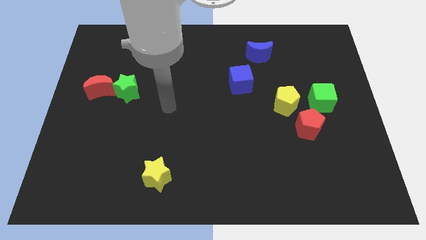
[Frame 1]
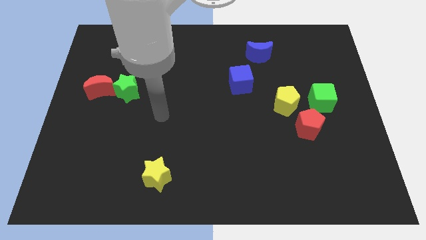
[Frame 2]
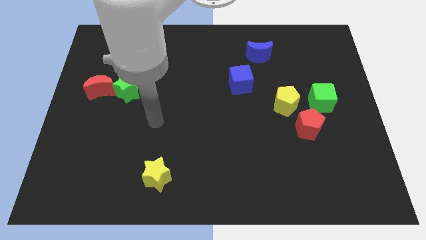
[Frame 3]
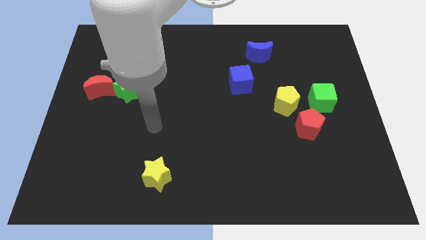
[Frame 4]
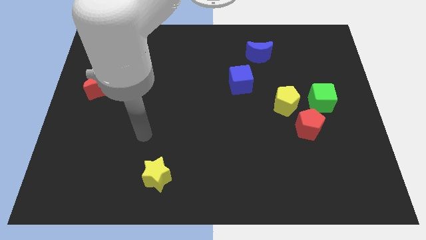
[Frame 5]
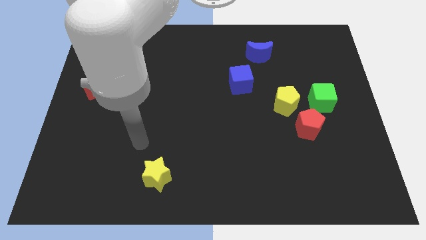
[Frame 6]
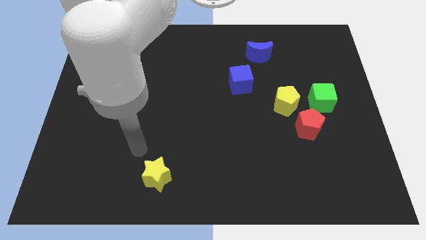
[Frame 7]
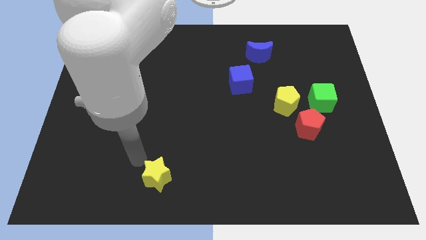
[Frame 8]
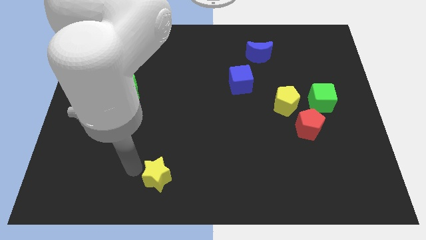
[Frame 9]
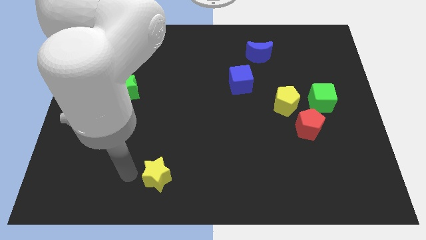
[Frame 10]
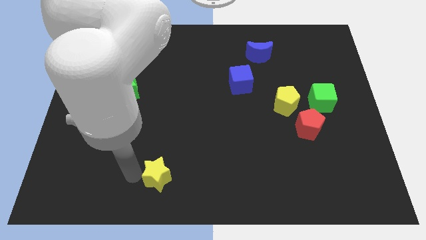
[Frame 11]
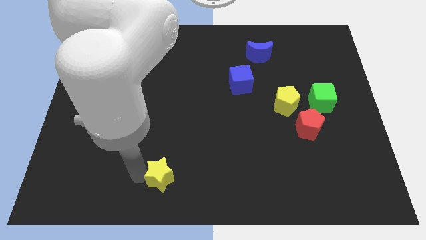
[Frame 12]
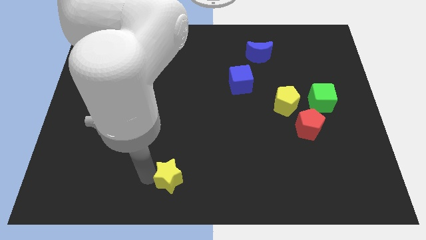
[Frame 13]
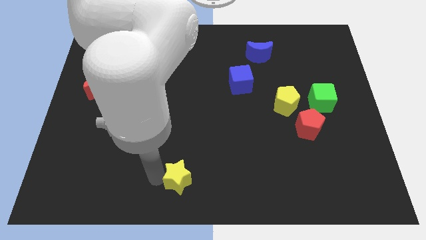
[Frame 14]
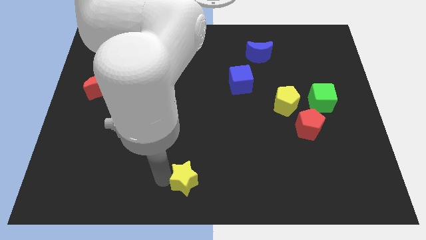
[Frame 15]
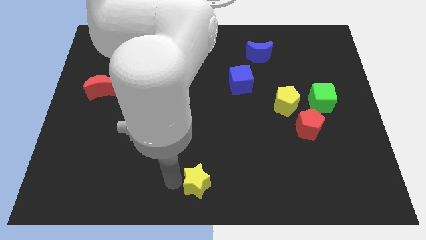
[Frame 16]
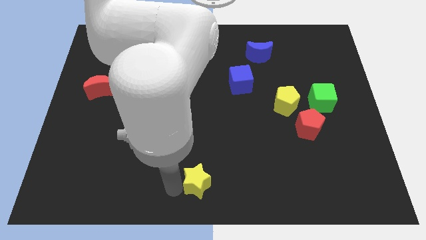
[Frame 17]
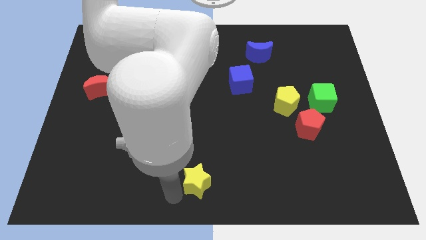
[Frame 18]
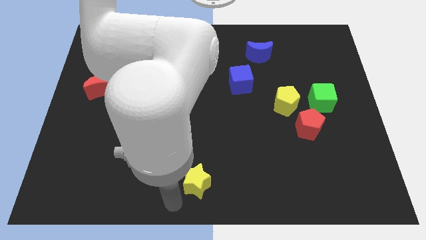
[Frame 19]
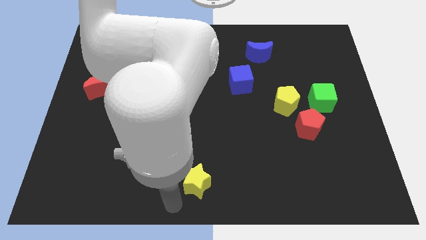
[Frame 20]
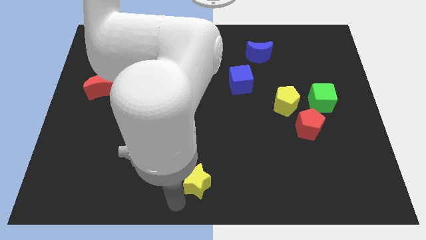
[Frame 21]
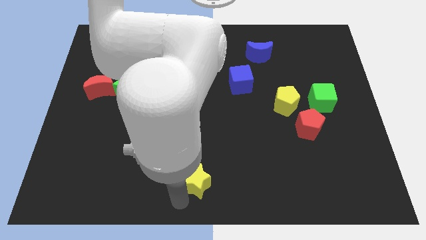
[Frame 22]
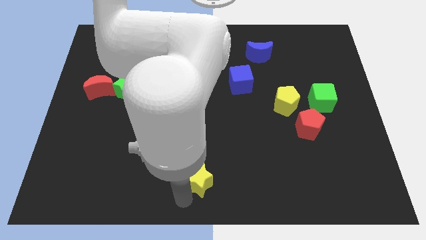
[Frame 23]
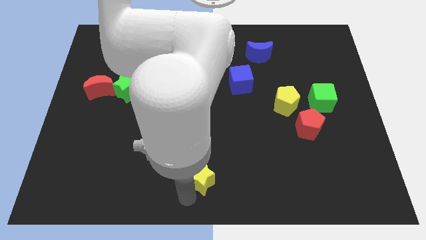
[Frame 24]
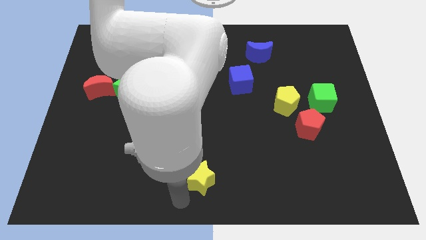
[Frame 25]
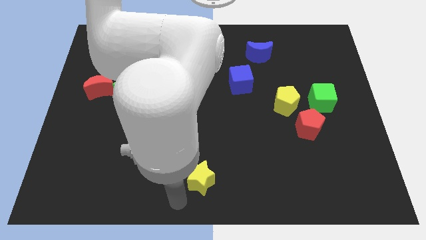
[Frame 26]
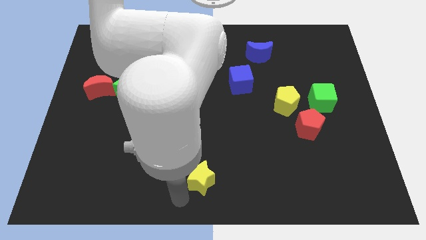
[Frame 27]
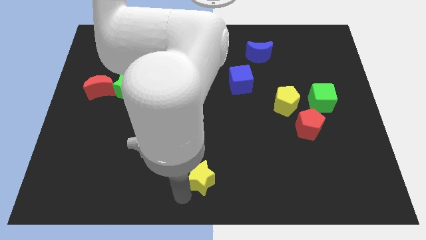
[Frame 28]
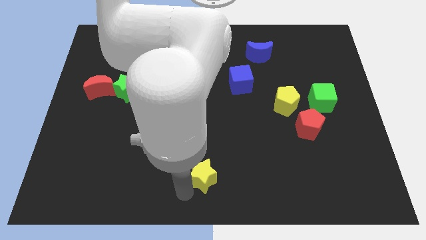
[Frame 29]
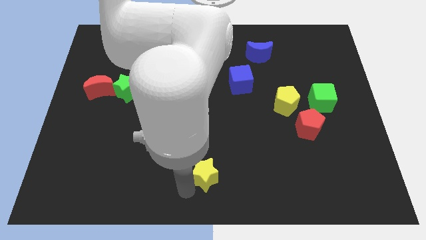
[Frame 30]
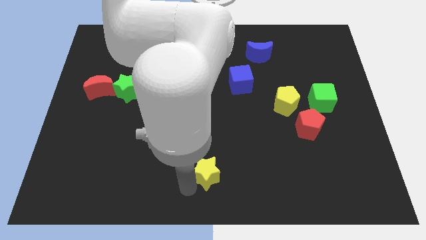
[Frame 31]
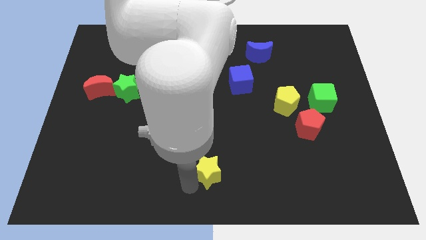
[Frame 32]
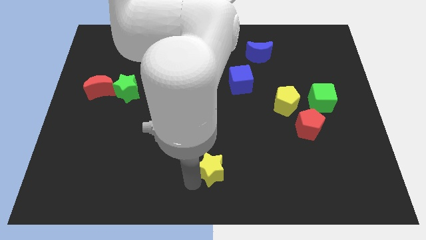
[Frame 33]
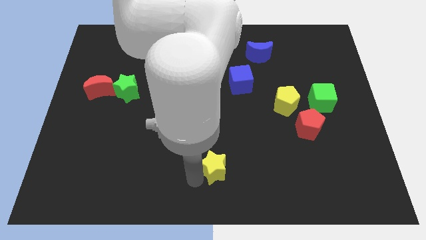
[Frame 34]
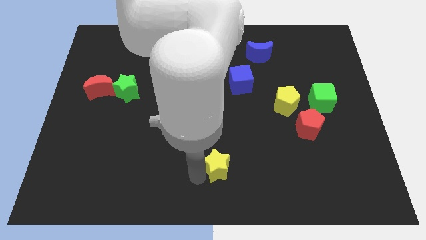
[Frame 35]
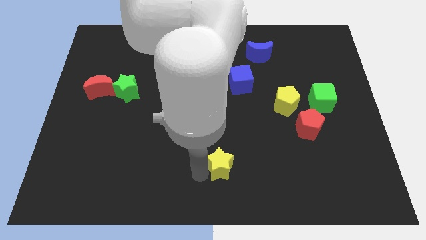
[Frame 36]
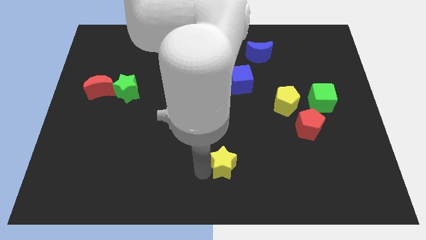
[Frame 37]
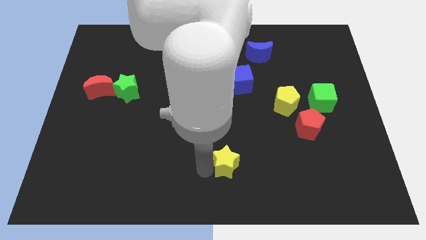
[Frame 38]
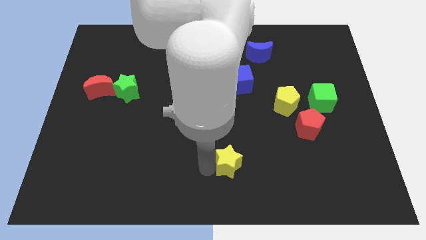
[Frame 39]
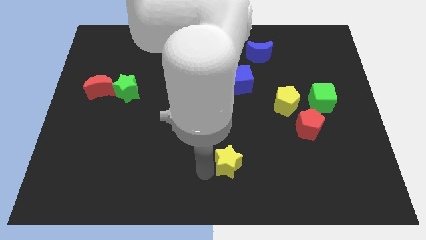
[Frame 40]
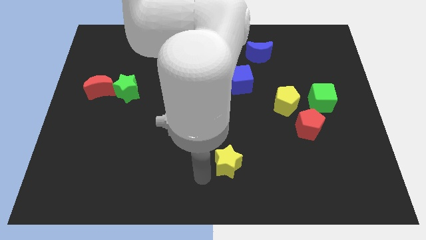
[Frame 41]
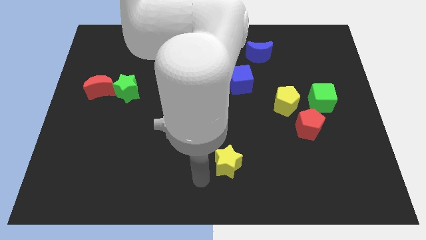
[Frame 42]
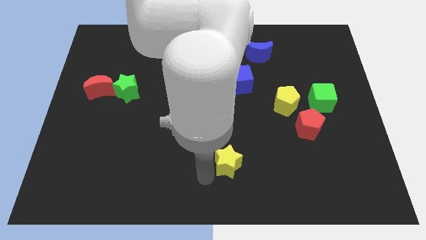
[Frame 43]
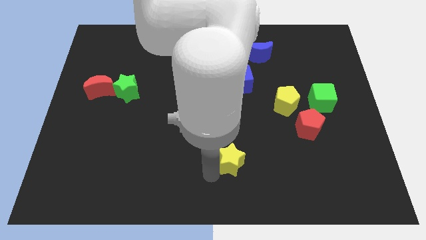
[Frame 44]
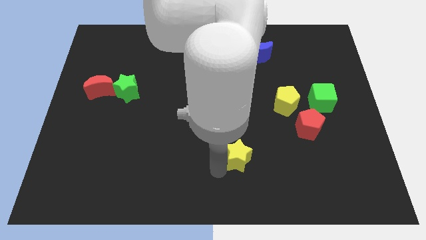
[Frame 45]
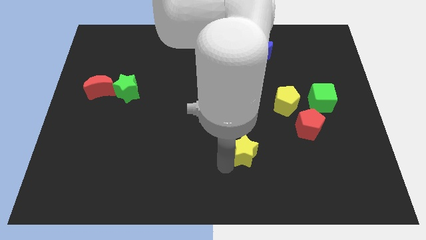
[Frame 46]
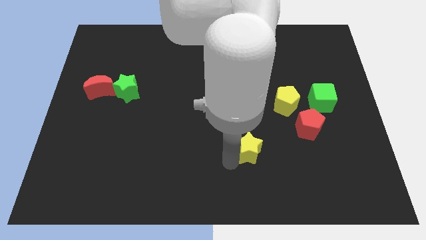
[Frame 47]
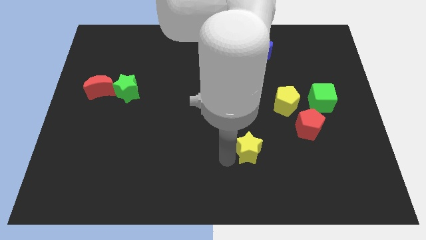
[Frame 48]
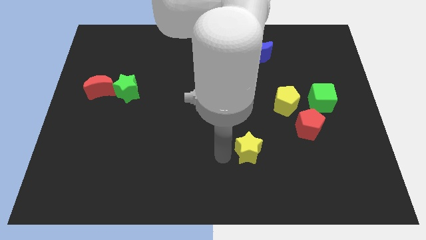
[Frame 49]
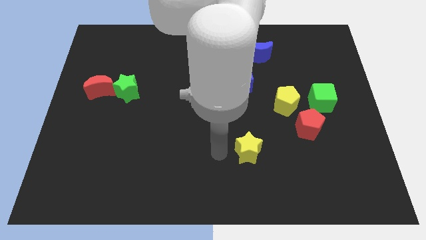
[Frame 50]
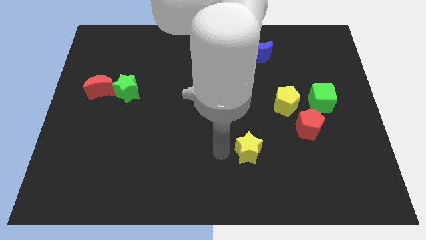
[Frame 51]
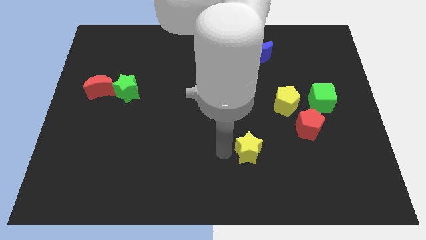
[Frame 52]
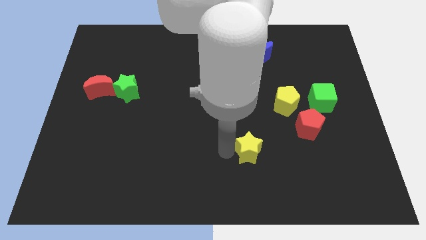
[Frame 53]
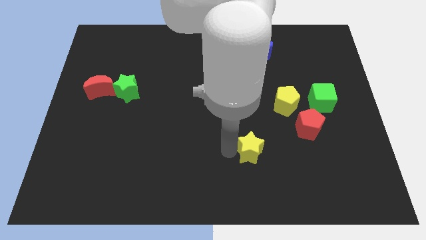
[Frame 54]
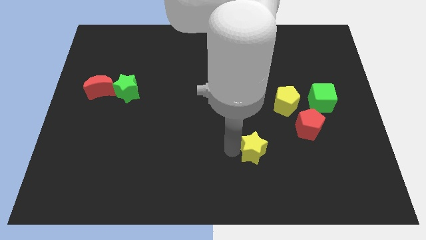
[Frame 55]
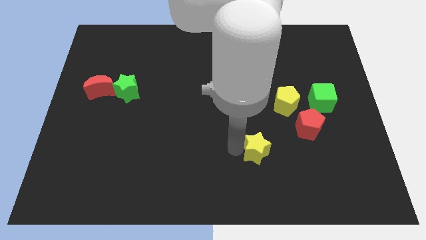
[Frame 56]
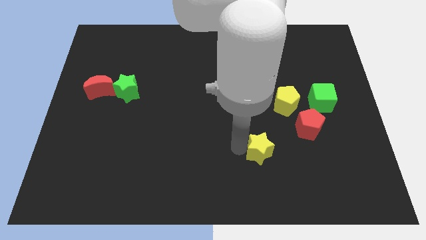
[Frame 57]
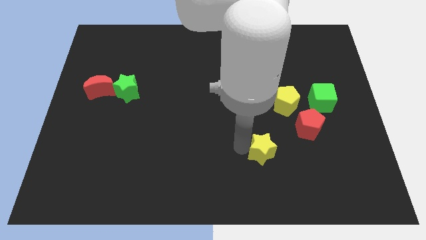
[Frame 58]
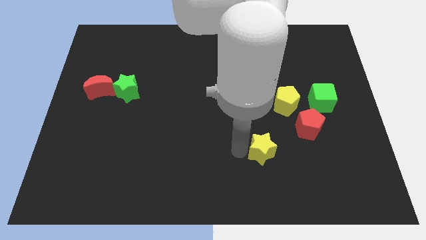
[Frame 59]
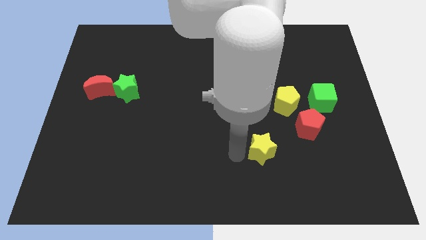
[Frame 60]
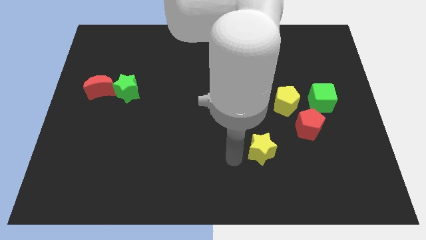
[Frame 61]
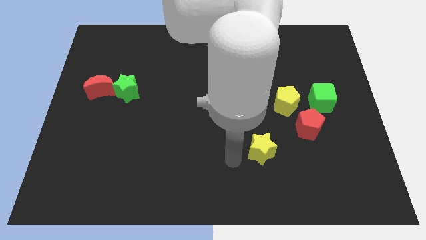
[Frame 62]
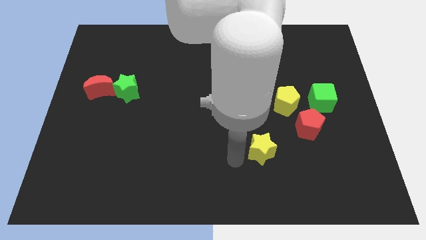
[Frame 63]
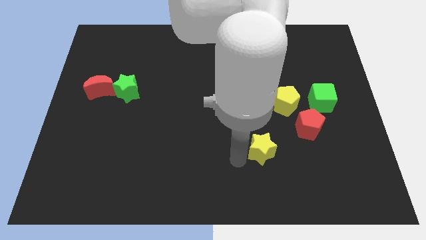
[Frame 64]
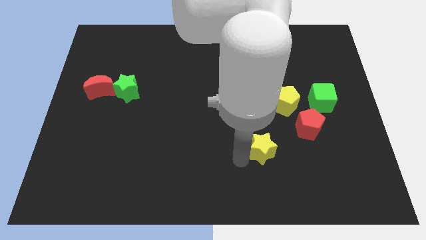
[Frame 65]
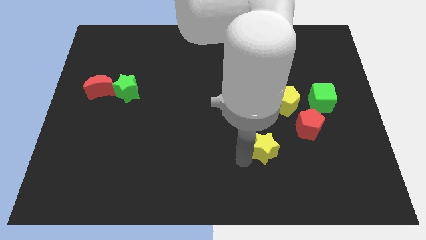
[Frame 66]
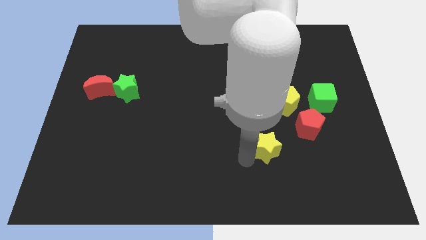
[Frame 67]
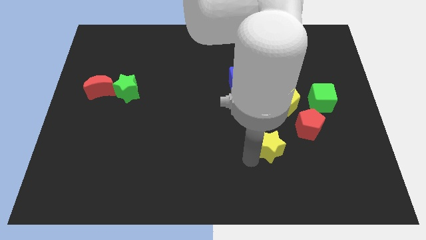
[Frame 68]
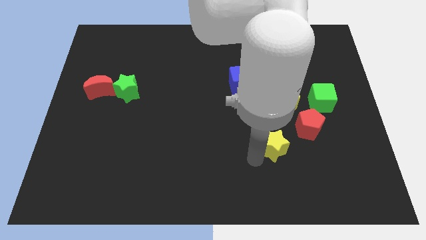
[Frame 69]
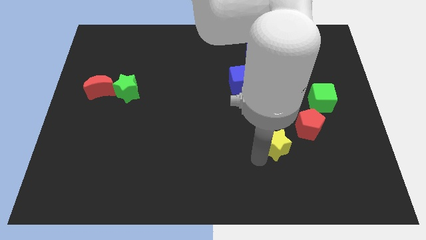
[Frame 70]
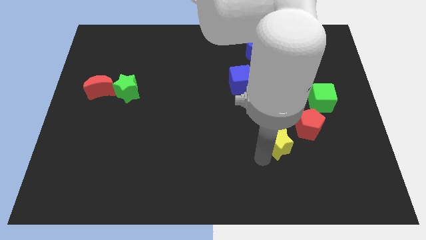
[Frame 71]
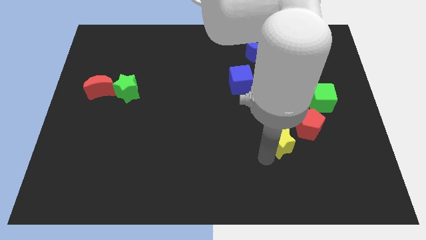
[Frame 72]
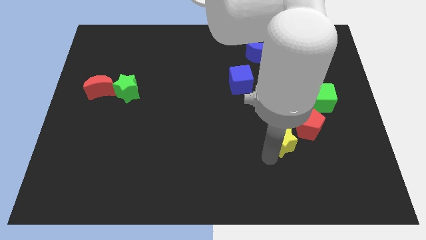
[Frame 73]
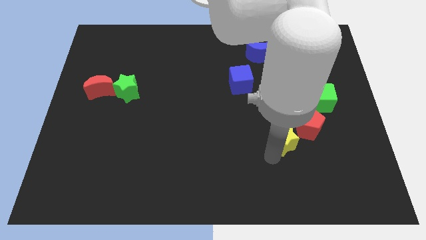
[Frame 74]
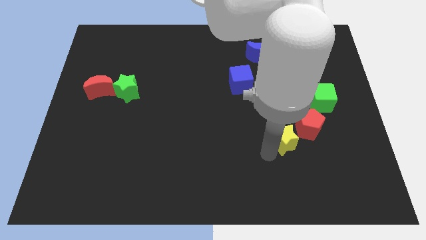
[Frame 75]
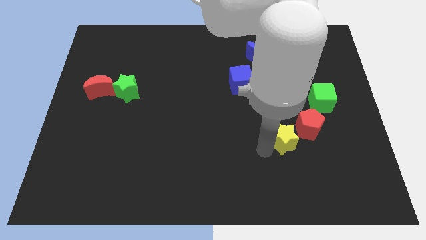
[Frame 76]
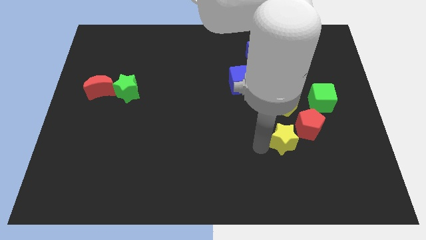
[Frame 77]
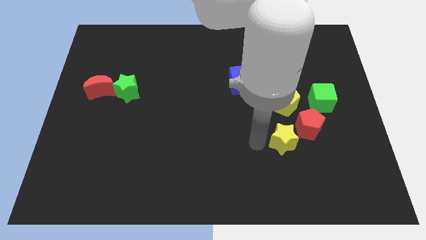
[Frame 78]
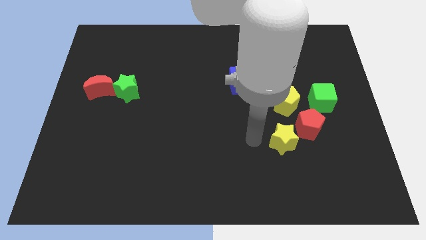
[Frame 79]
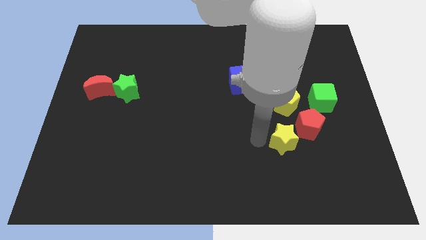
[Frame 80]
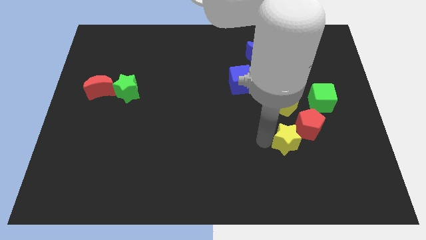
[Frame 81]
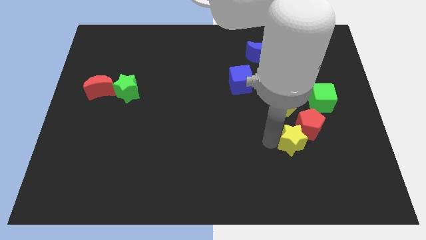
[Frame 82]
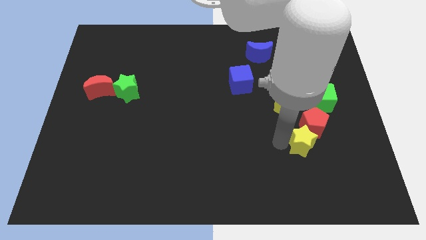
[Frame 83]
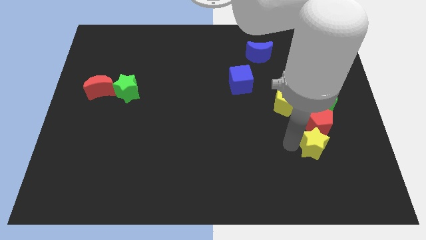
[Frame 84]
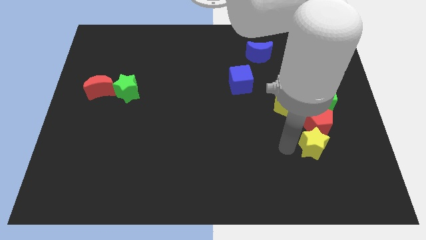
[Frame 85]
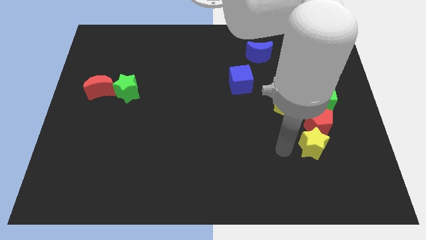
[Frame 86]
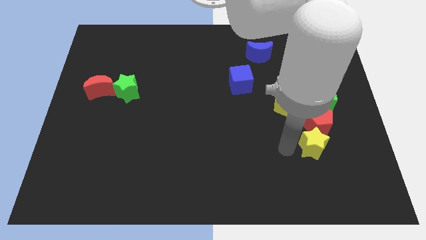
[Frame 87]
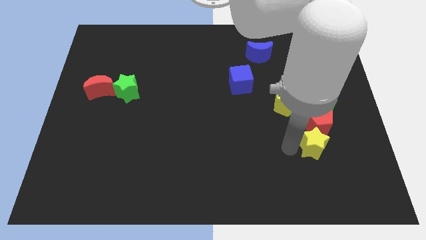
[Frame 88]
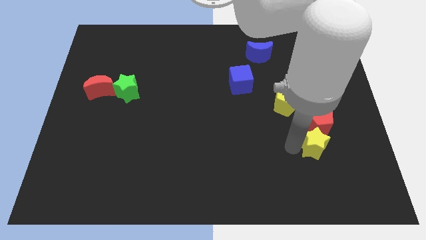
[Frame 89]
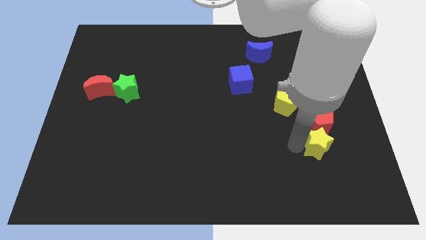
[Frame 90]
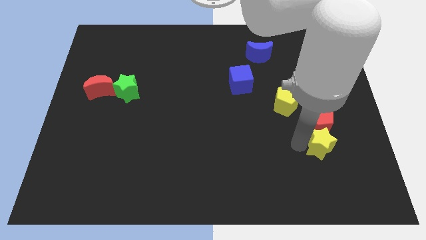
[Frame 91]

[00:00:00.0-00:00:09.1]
move the yellow star to the bottom right of the red pentagon
